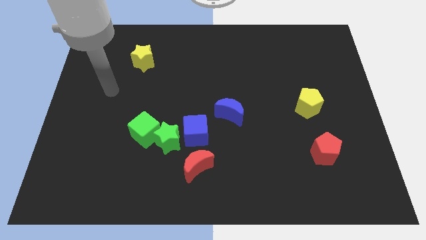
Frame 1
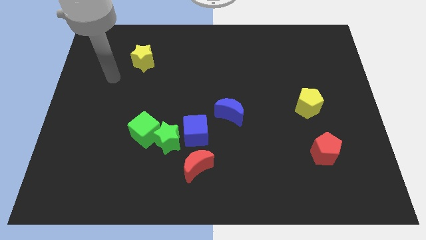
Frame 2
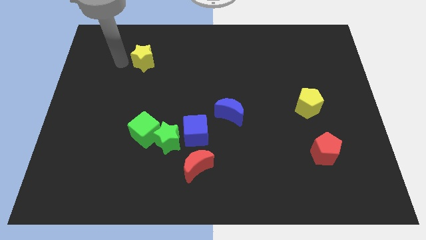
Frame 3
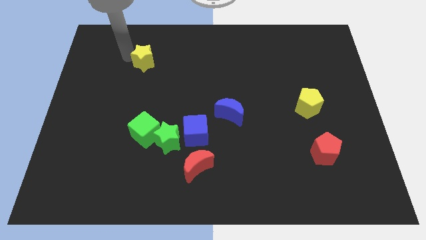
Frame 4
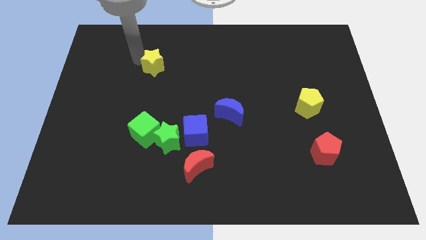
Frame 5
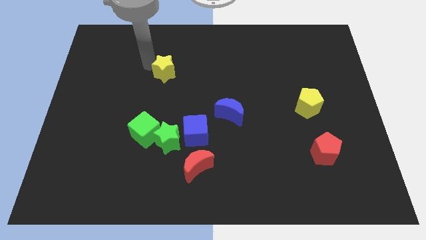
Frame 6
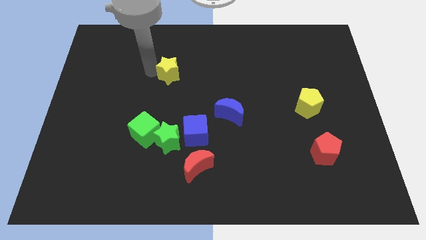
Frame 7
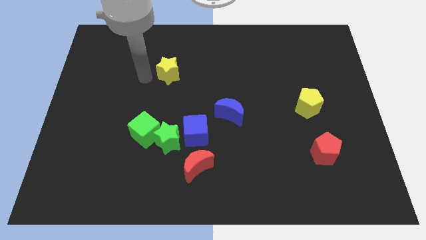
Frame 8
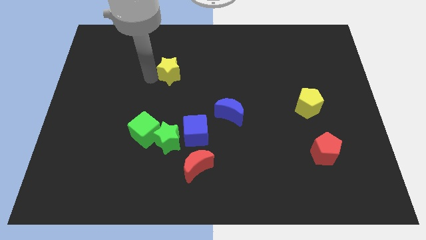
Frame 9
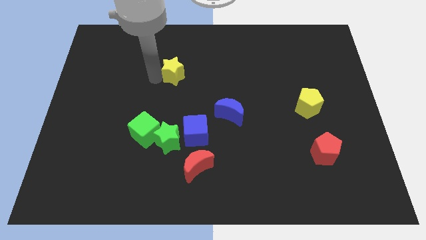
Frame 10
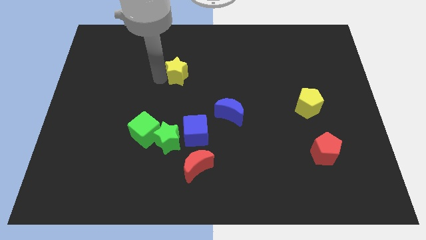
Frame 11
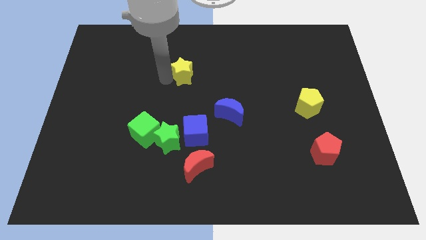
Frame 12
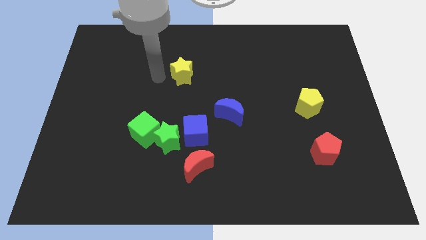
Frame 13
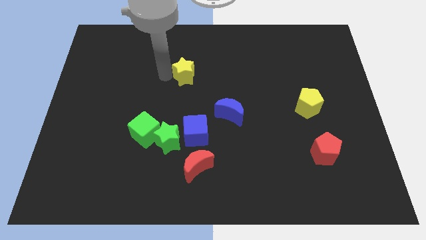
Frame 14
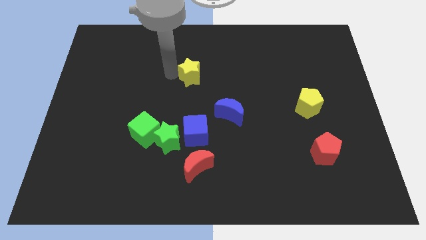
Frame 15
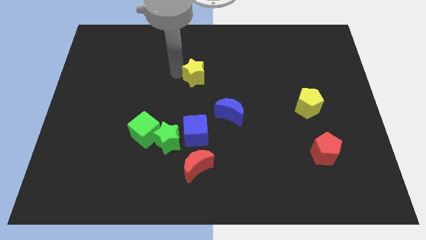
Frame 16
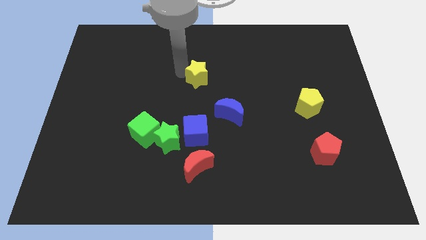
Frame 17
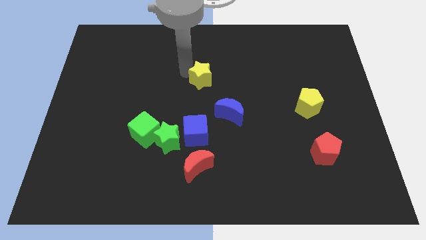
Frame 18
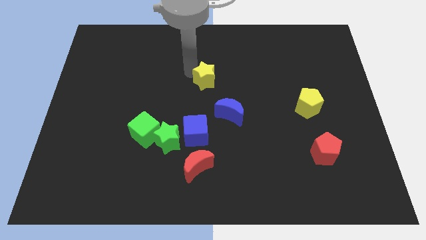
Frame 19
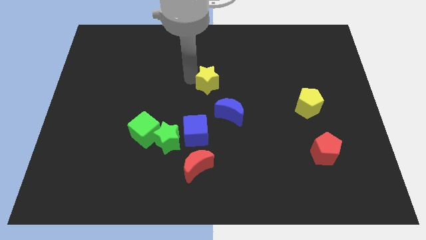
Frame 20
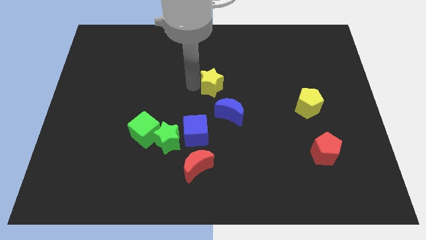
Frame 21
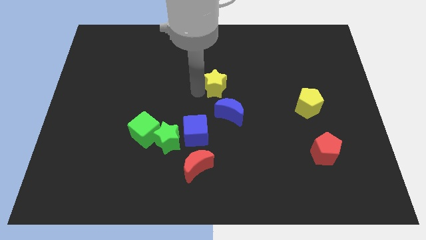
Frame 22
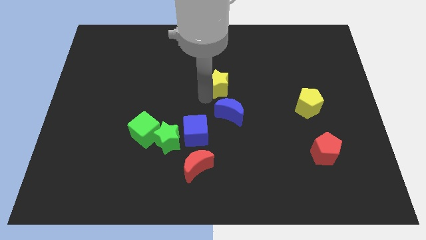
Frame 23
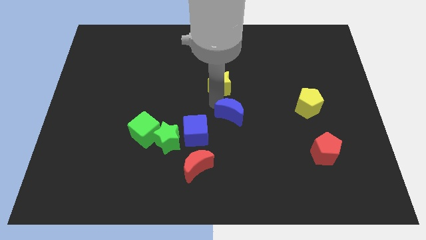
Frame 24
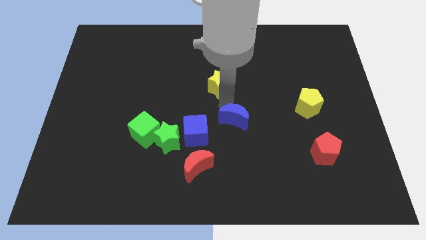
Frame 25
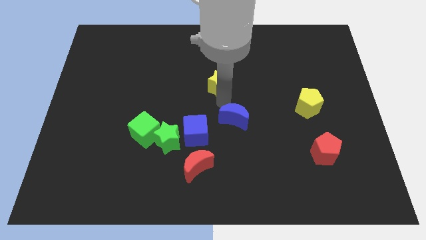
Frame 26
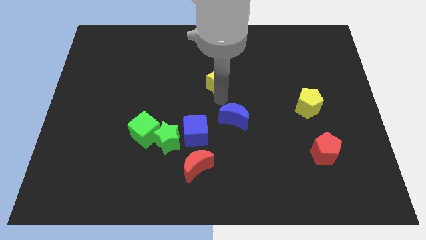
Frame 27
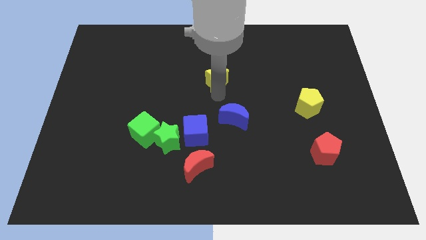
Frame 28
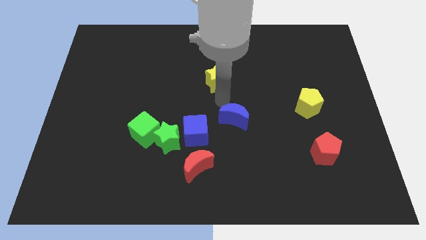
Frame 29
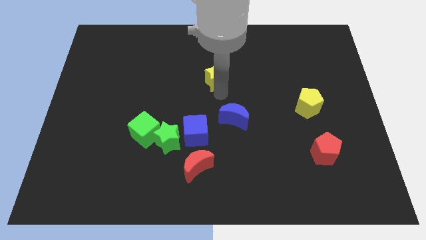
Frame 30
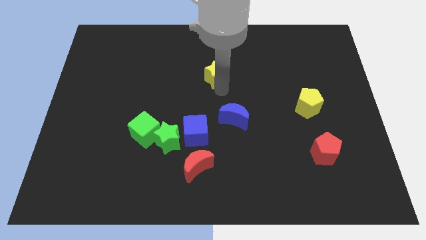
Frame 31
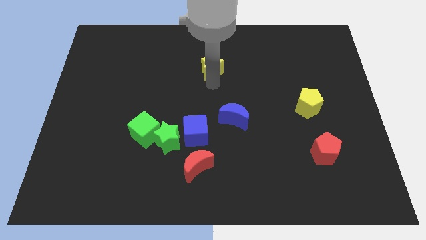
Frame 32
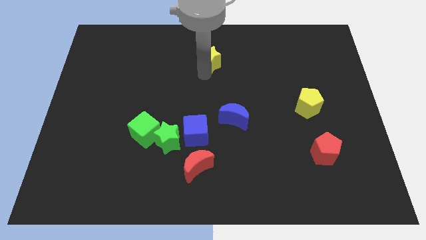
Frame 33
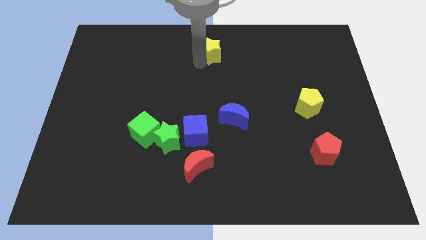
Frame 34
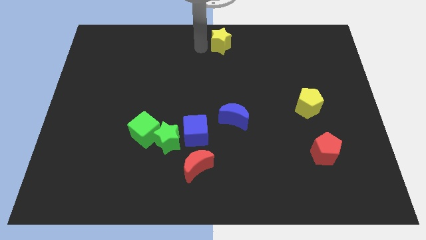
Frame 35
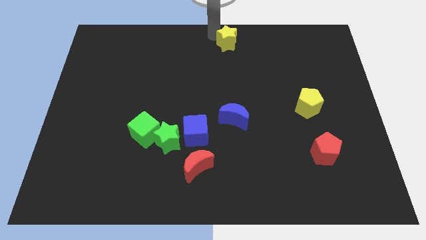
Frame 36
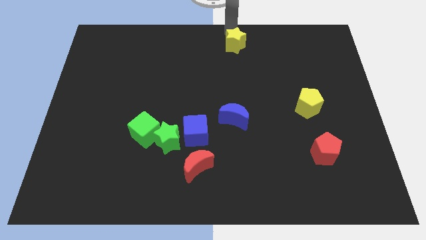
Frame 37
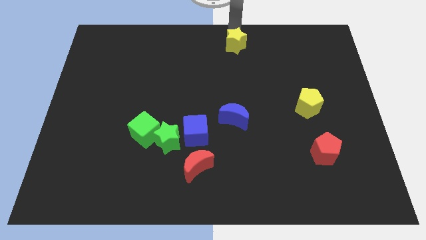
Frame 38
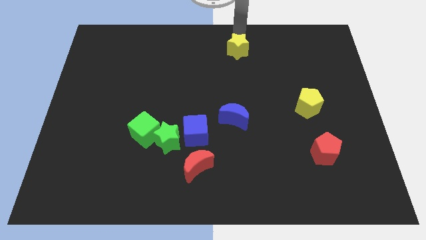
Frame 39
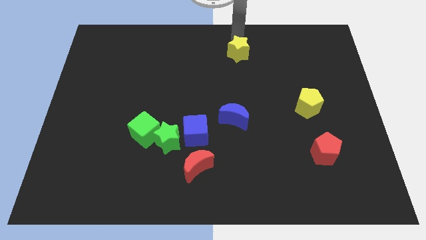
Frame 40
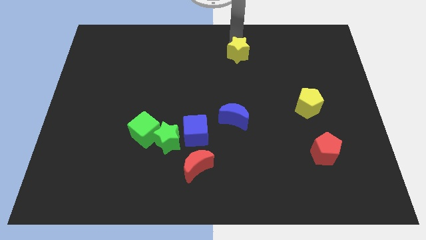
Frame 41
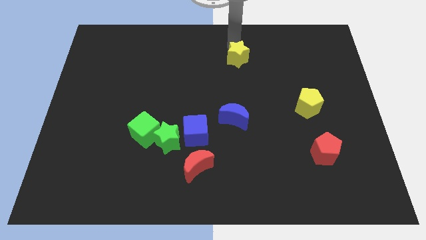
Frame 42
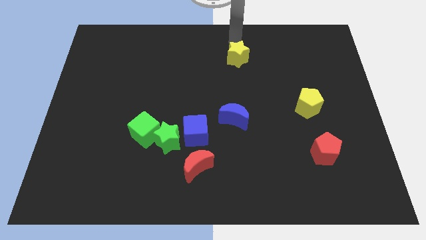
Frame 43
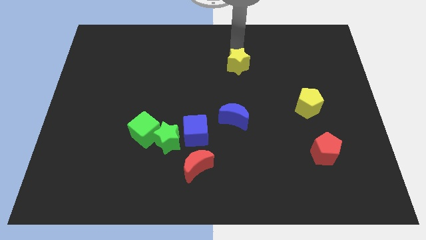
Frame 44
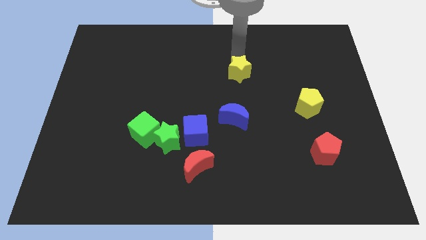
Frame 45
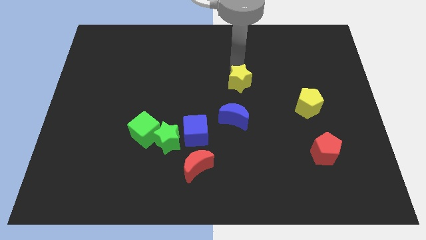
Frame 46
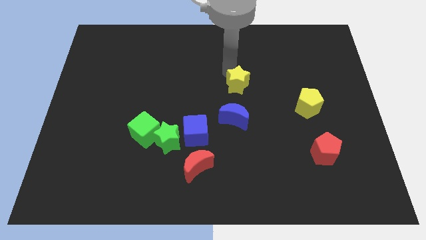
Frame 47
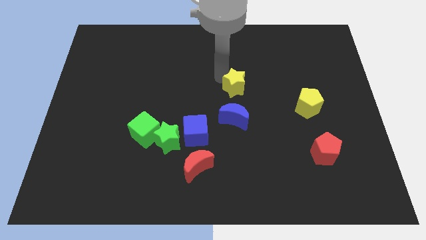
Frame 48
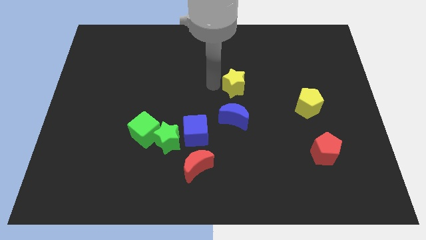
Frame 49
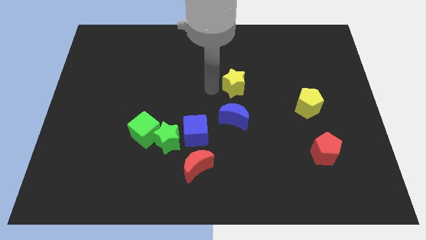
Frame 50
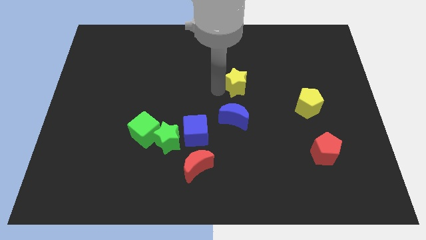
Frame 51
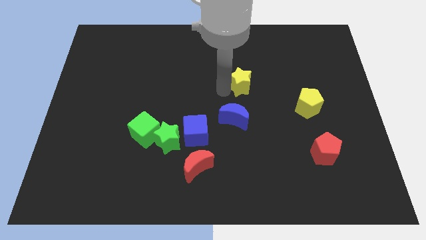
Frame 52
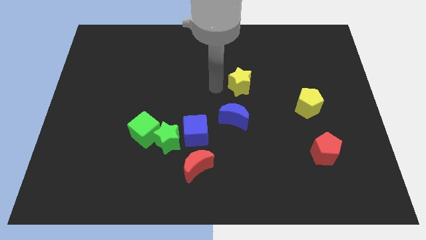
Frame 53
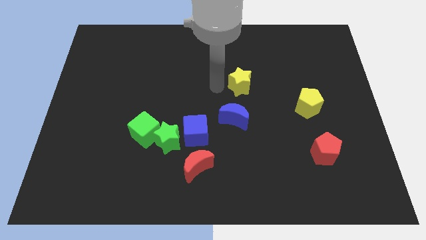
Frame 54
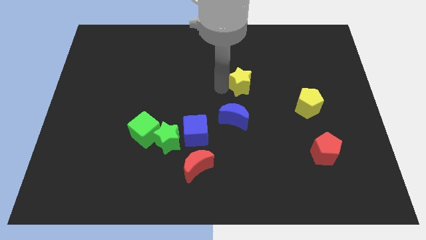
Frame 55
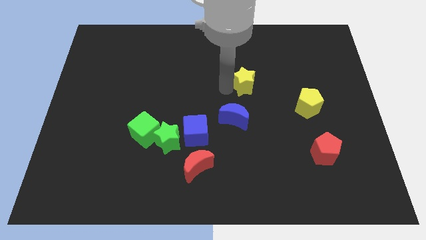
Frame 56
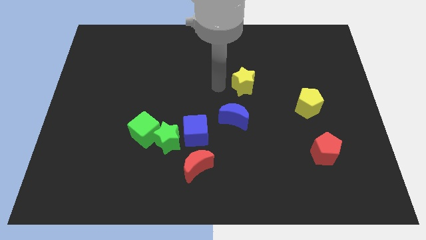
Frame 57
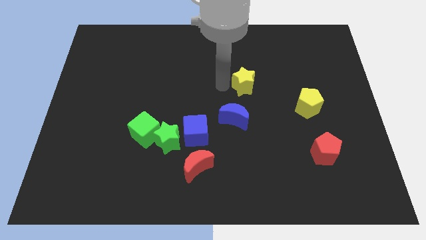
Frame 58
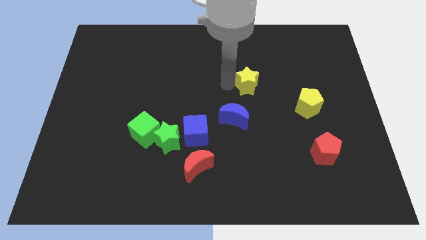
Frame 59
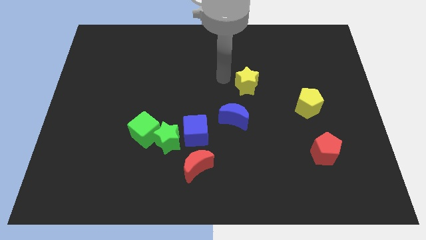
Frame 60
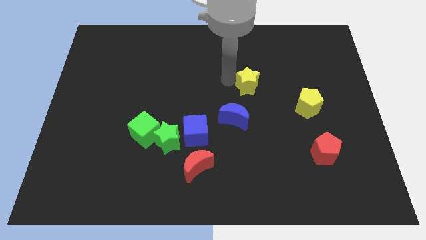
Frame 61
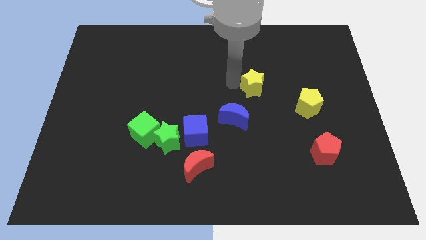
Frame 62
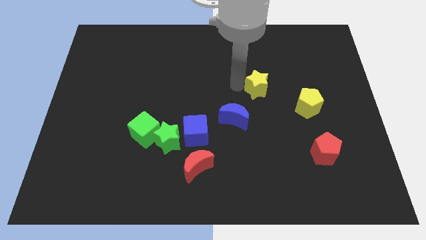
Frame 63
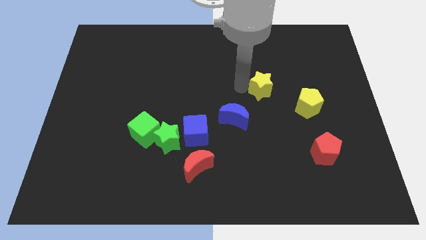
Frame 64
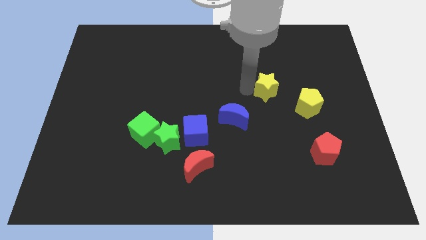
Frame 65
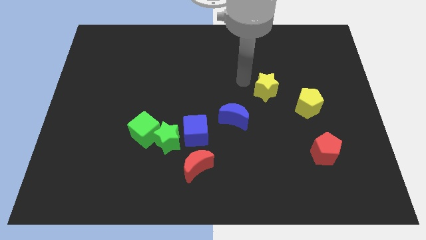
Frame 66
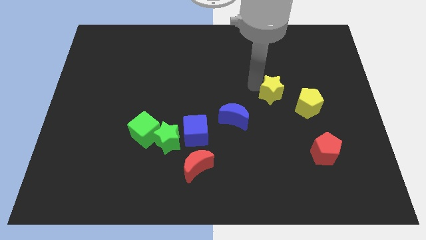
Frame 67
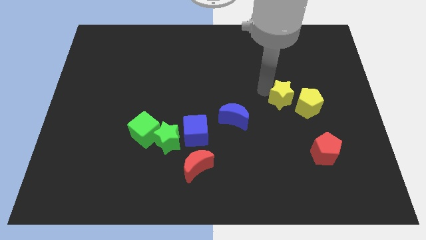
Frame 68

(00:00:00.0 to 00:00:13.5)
slide the yellow star to the yellow pentagon
